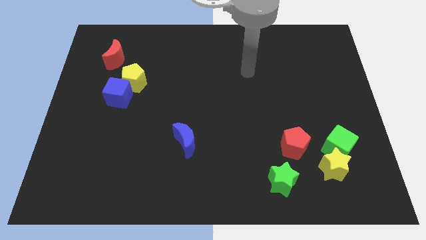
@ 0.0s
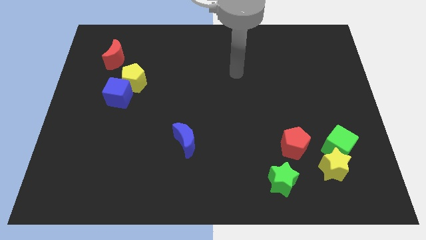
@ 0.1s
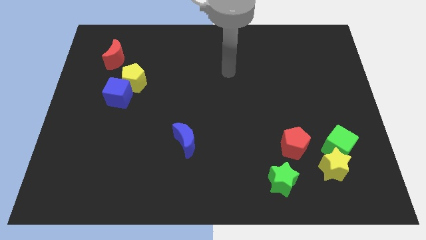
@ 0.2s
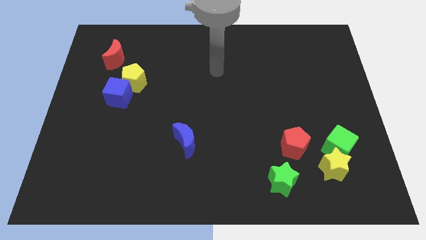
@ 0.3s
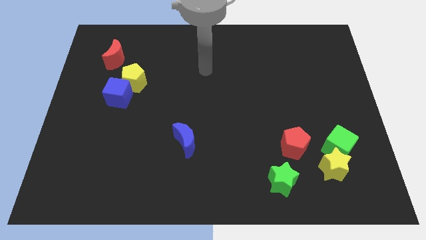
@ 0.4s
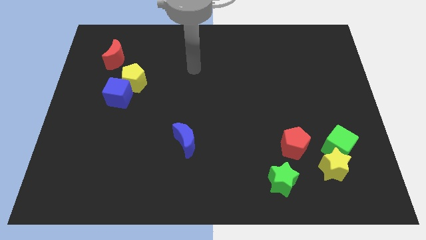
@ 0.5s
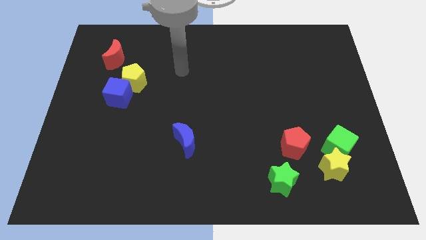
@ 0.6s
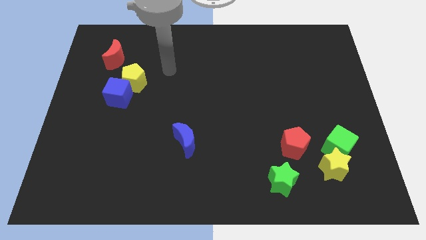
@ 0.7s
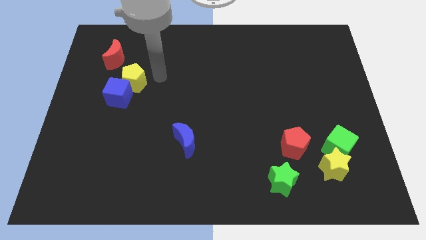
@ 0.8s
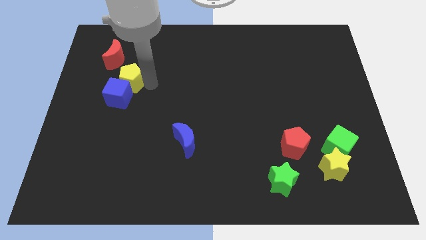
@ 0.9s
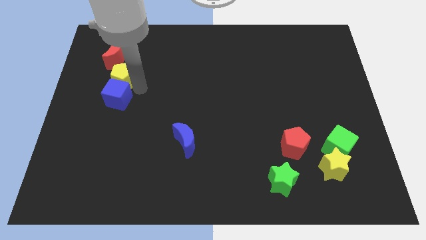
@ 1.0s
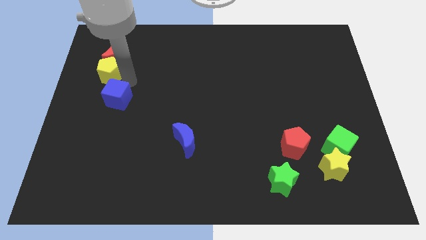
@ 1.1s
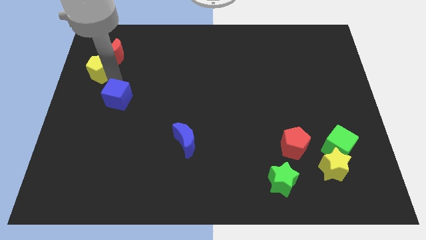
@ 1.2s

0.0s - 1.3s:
pull the blue cube apart from the yellow pentagon

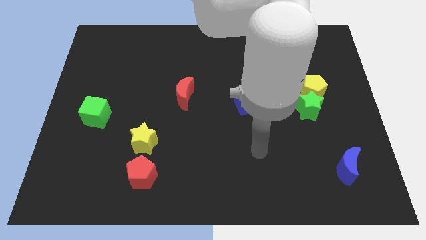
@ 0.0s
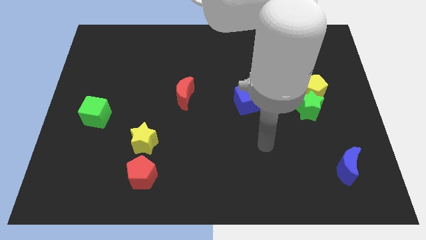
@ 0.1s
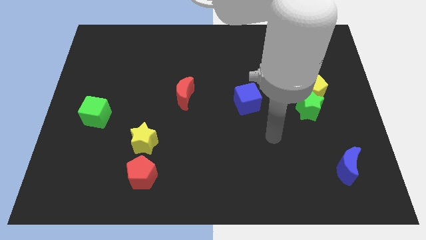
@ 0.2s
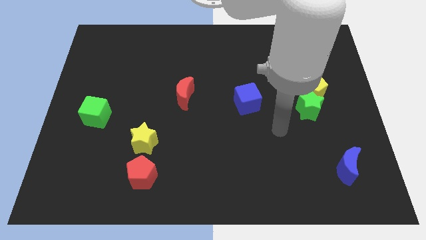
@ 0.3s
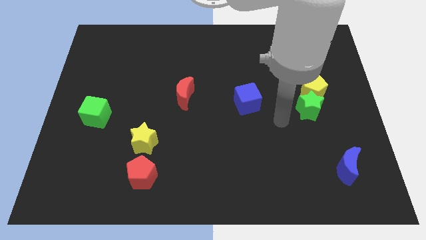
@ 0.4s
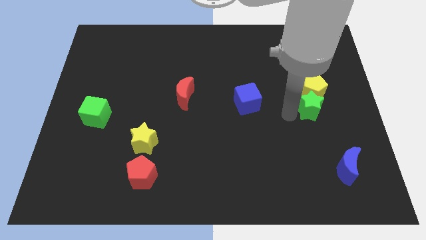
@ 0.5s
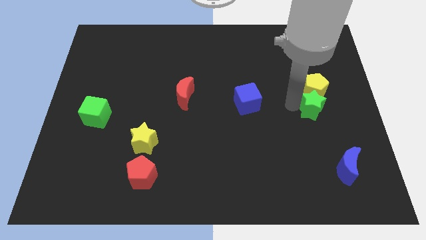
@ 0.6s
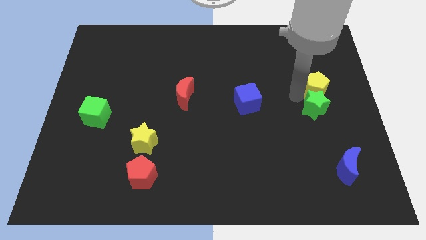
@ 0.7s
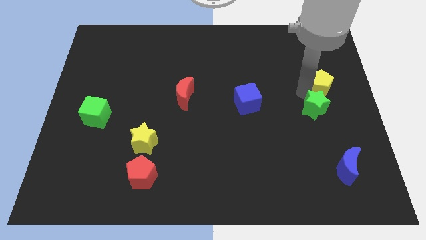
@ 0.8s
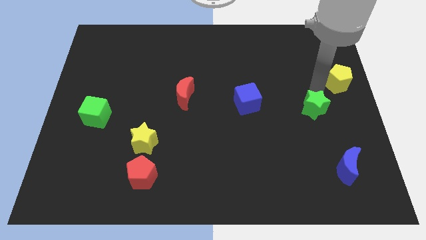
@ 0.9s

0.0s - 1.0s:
separate the green star from the yellow pentagon

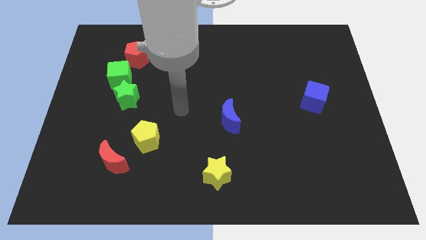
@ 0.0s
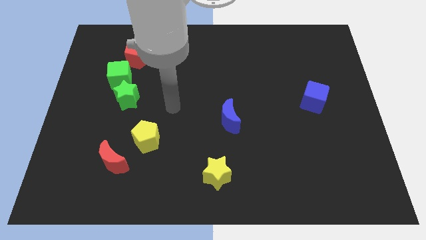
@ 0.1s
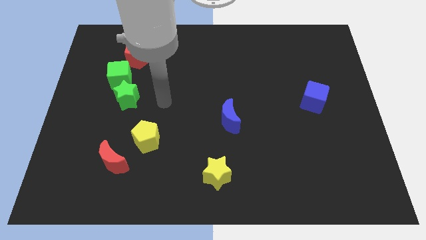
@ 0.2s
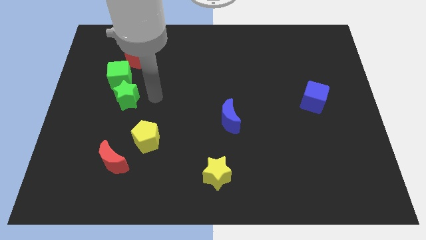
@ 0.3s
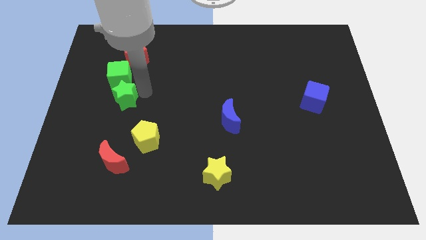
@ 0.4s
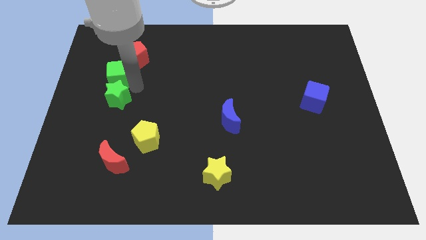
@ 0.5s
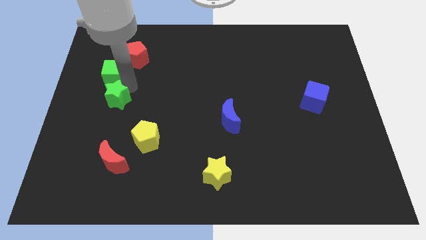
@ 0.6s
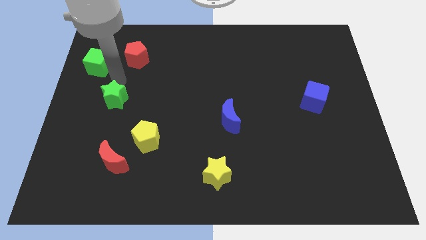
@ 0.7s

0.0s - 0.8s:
pull the green star apart from the green cube

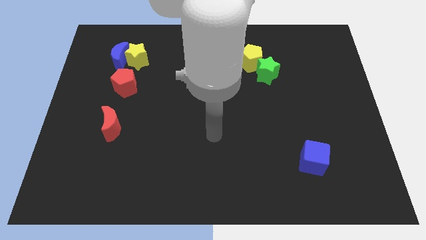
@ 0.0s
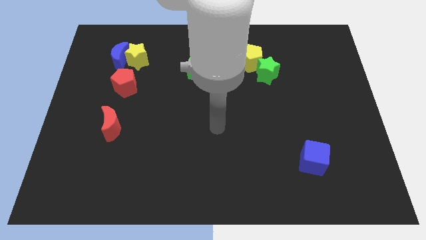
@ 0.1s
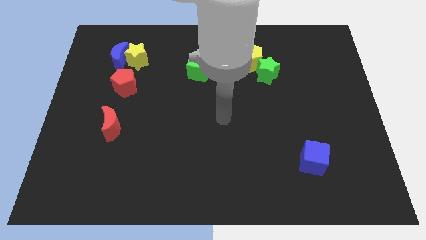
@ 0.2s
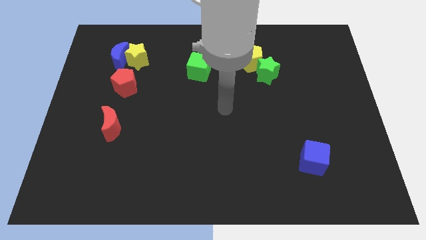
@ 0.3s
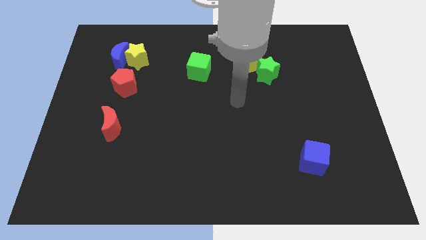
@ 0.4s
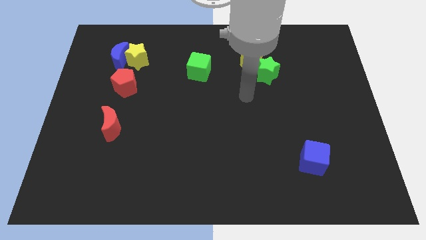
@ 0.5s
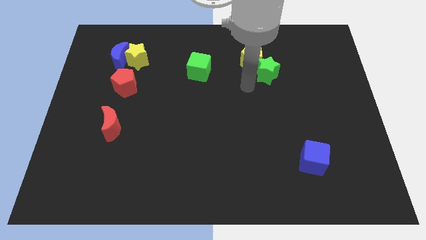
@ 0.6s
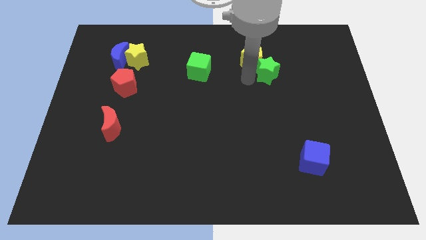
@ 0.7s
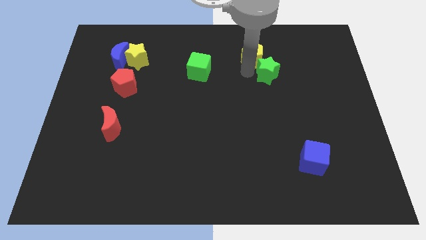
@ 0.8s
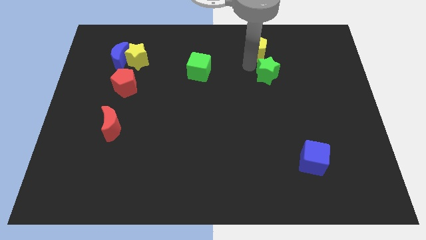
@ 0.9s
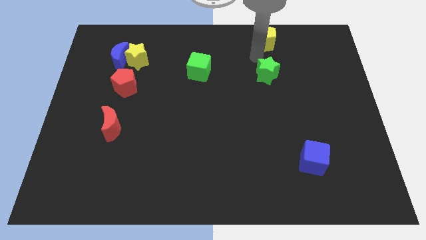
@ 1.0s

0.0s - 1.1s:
move the green star away from the yellow pentagon

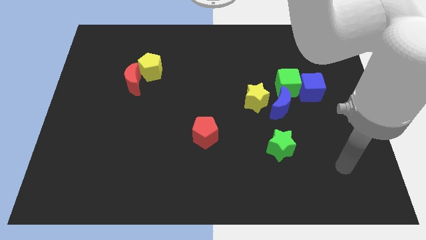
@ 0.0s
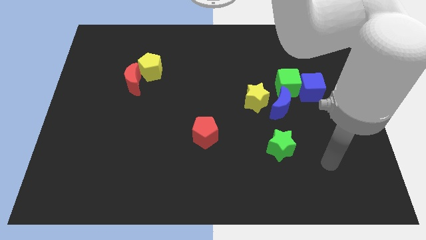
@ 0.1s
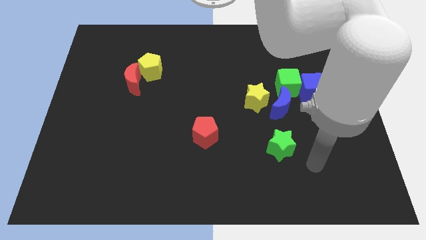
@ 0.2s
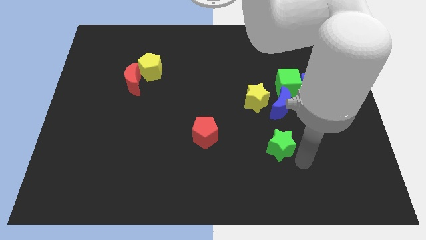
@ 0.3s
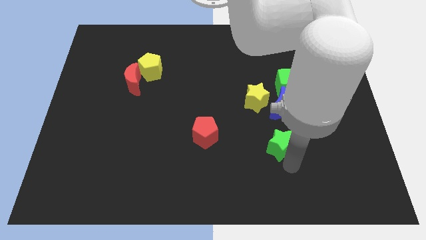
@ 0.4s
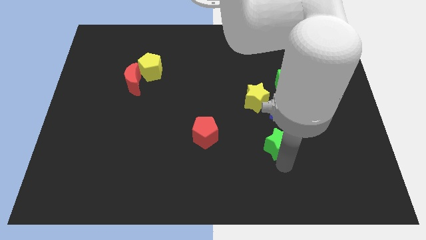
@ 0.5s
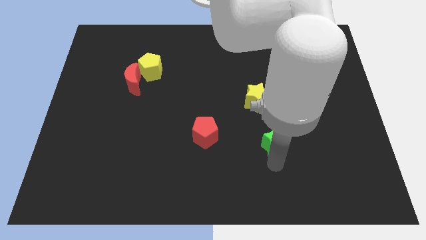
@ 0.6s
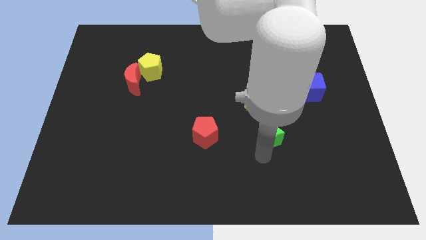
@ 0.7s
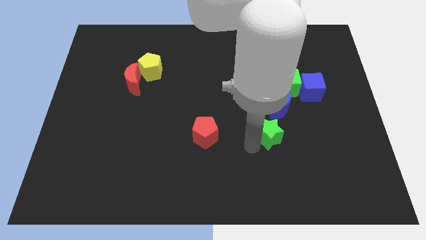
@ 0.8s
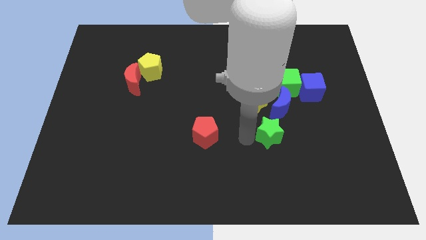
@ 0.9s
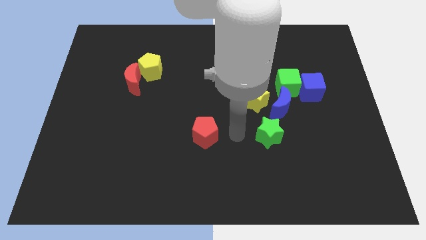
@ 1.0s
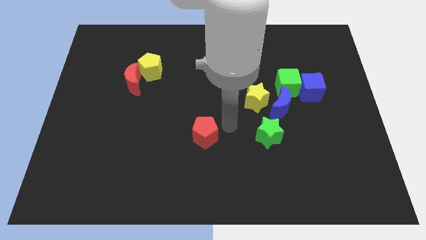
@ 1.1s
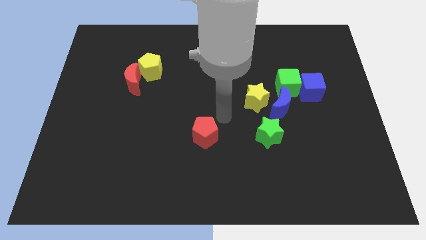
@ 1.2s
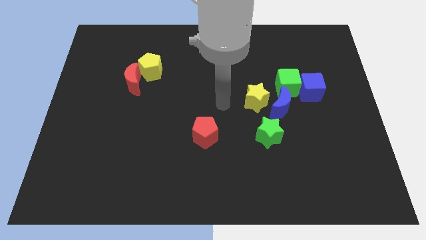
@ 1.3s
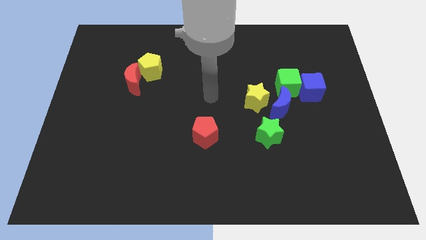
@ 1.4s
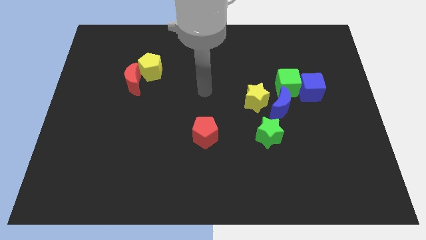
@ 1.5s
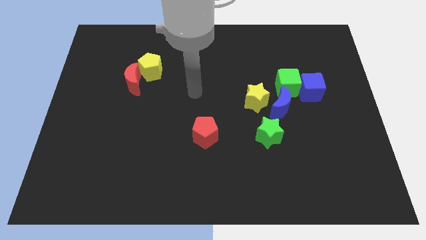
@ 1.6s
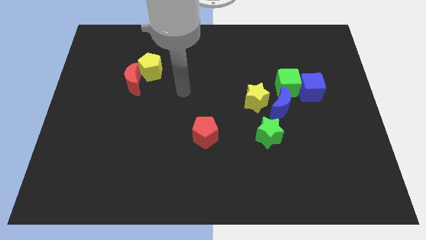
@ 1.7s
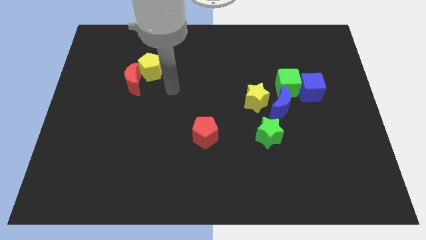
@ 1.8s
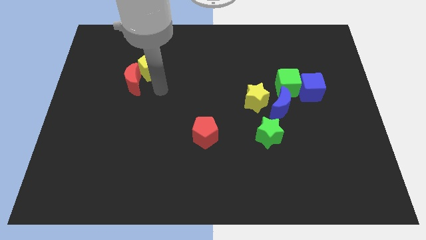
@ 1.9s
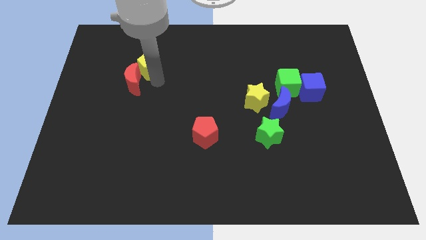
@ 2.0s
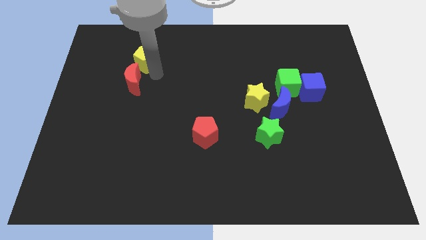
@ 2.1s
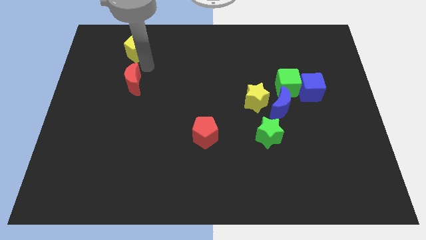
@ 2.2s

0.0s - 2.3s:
pull the red moon apart from the yellow pentagon

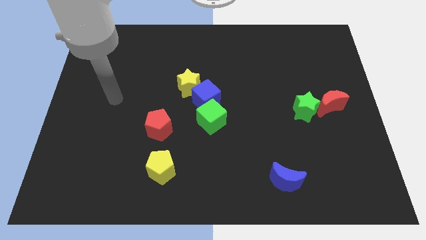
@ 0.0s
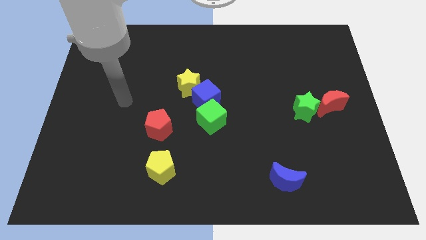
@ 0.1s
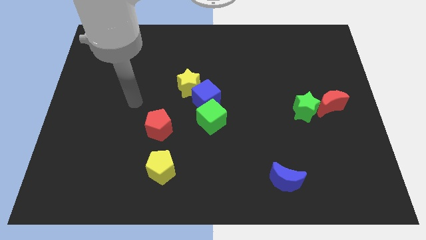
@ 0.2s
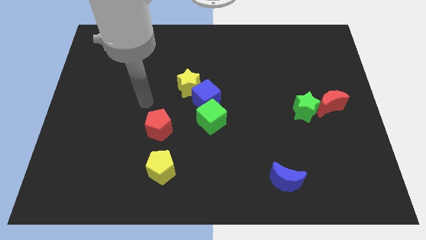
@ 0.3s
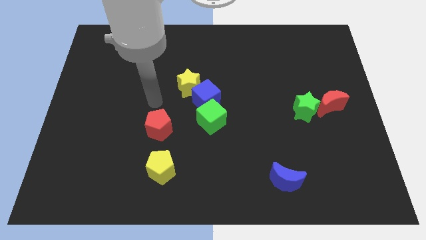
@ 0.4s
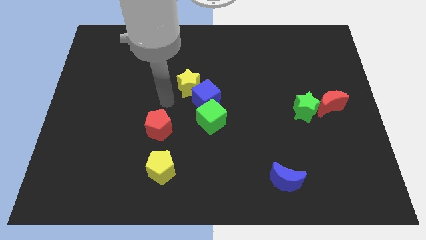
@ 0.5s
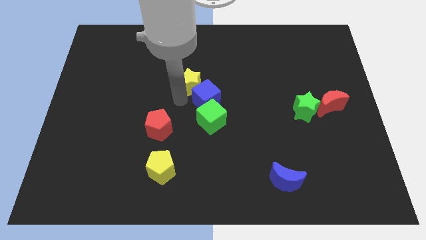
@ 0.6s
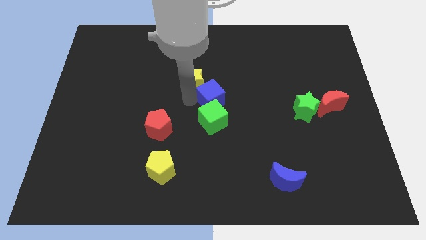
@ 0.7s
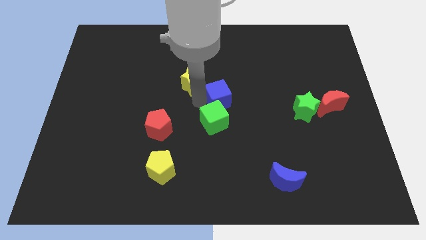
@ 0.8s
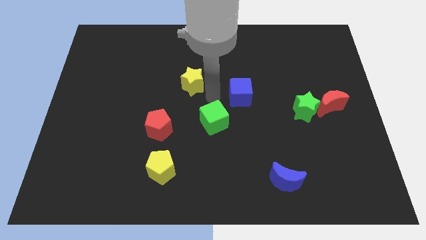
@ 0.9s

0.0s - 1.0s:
separate the yellow star from the blue cube

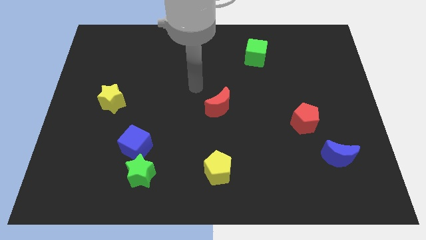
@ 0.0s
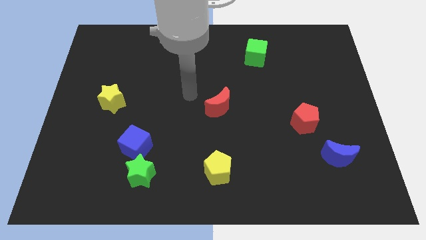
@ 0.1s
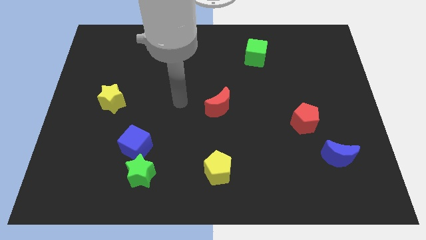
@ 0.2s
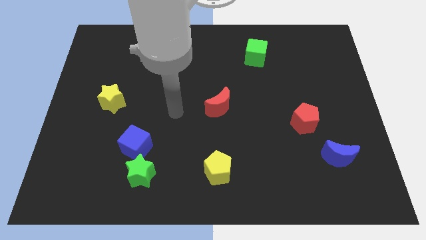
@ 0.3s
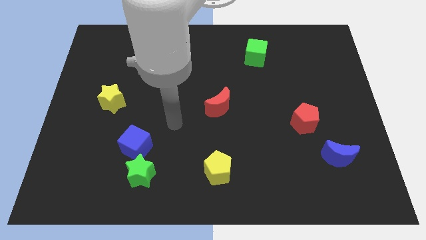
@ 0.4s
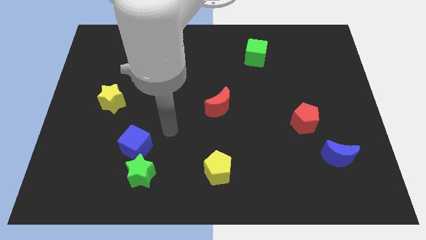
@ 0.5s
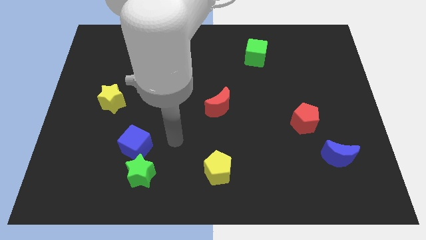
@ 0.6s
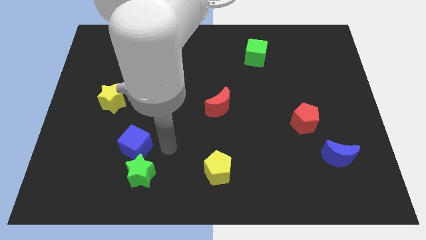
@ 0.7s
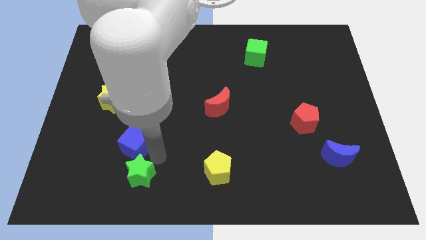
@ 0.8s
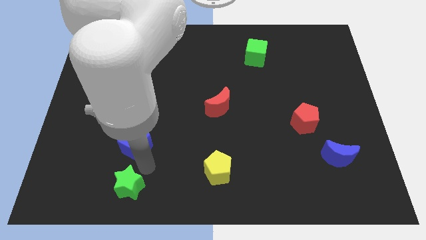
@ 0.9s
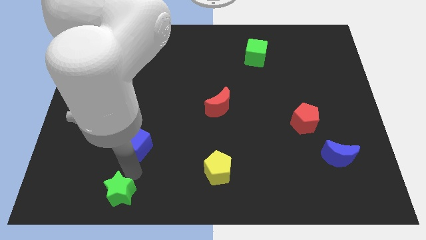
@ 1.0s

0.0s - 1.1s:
separate the blue cube from the green star

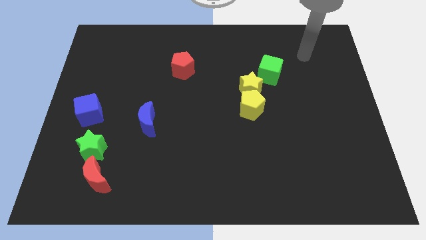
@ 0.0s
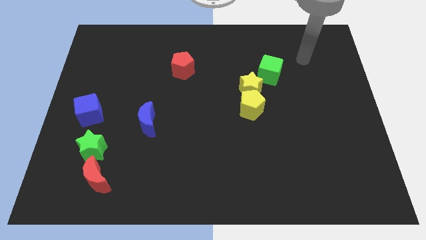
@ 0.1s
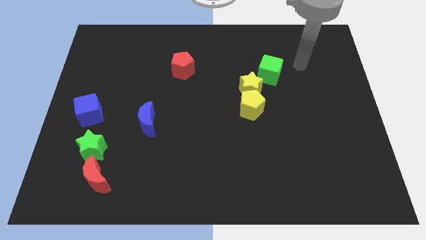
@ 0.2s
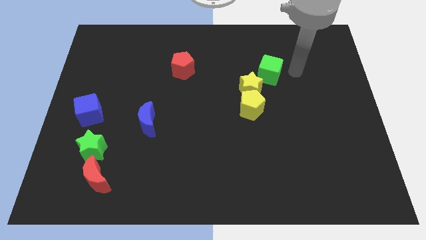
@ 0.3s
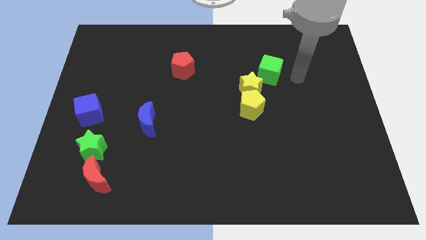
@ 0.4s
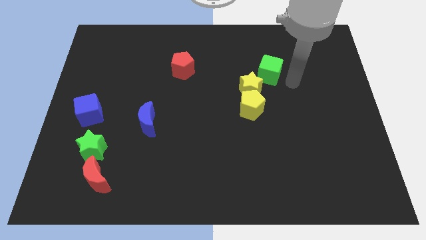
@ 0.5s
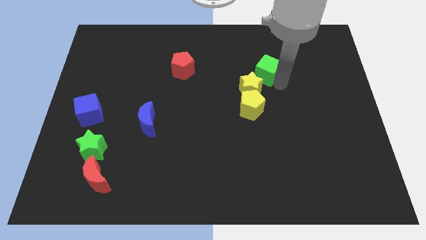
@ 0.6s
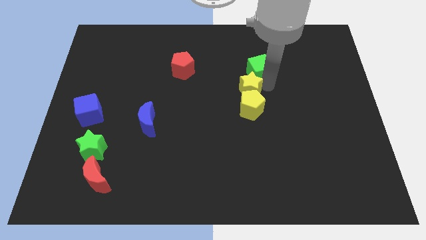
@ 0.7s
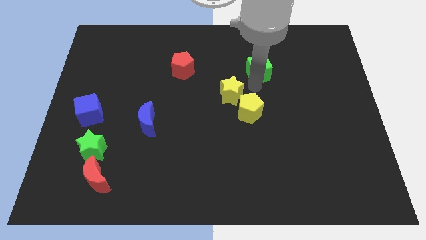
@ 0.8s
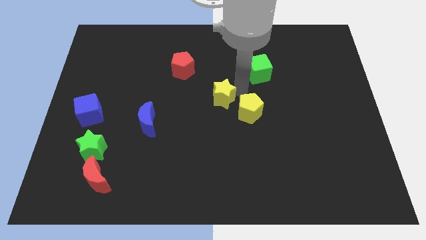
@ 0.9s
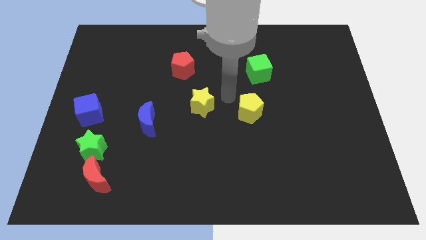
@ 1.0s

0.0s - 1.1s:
move the yellow pentagon away from the yellow star
